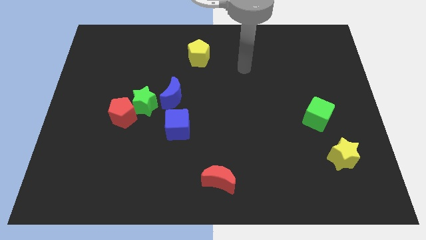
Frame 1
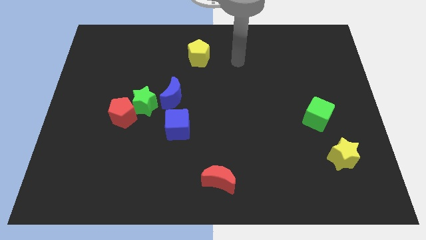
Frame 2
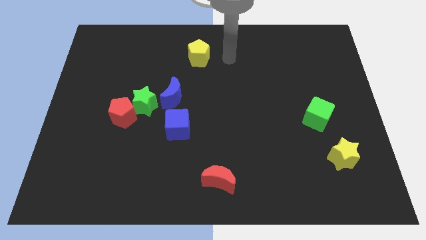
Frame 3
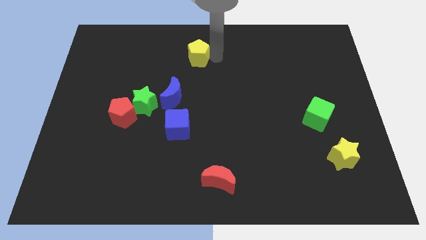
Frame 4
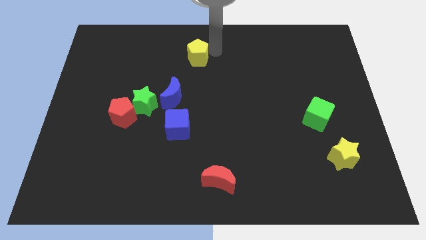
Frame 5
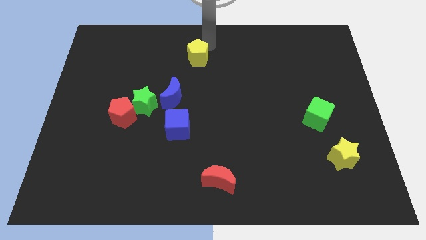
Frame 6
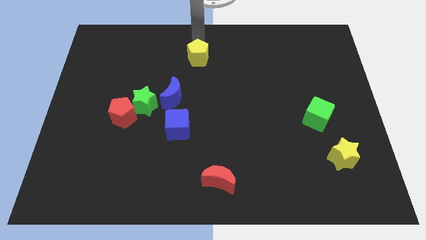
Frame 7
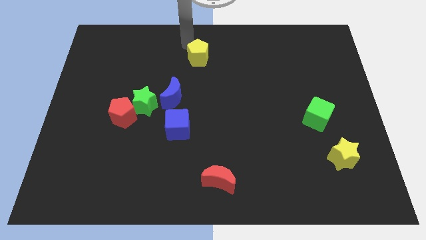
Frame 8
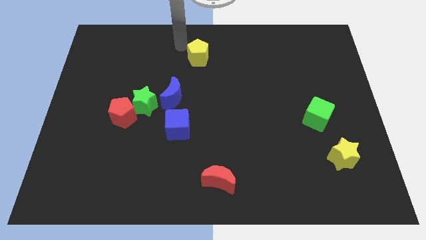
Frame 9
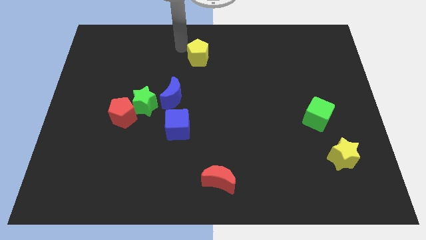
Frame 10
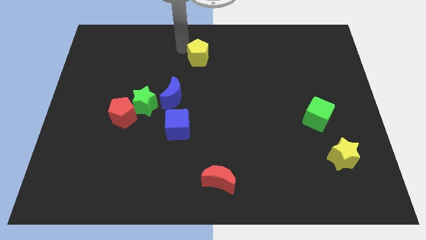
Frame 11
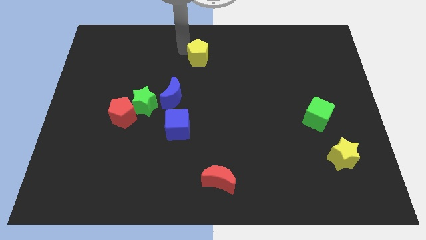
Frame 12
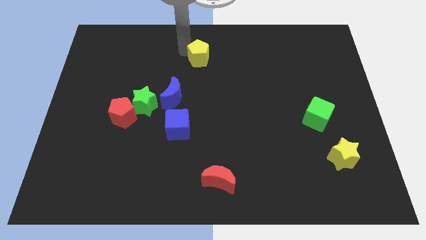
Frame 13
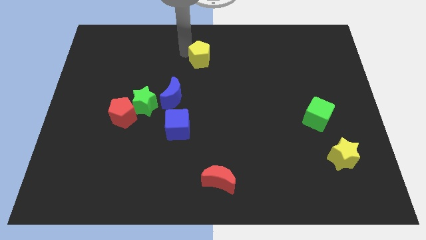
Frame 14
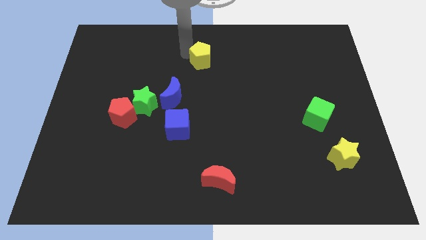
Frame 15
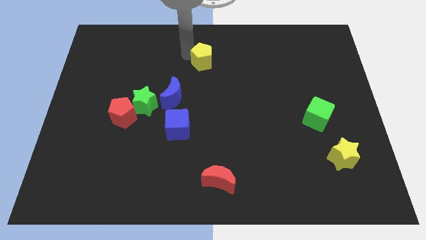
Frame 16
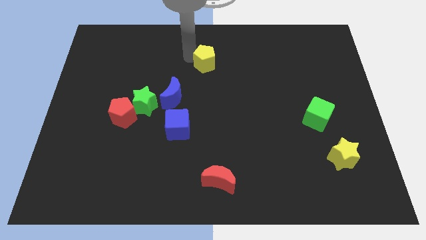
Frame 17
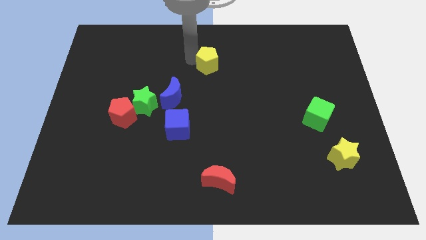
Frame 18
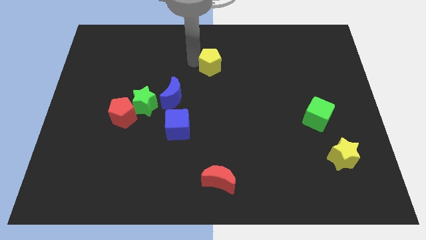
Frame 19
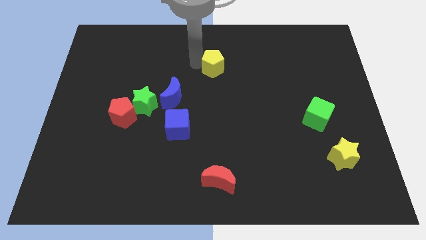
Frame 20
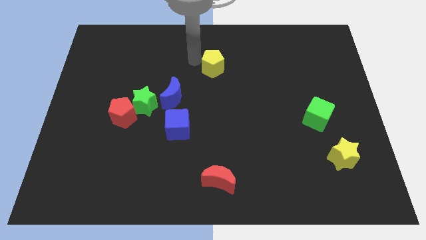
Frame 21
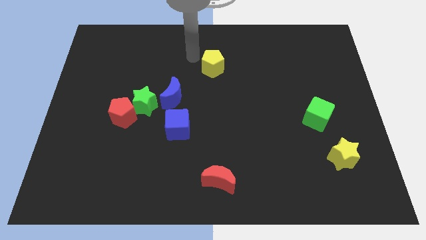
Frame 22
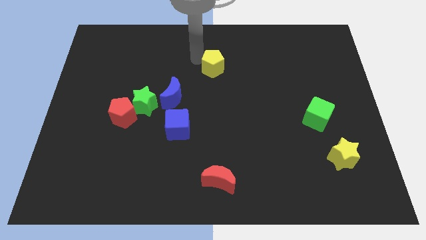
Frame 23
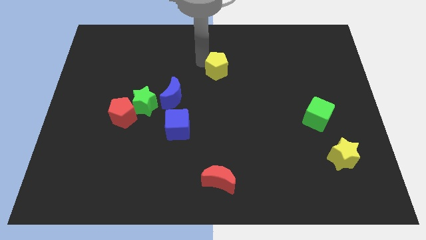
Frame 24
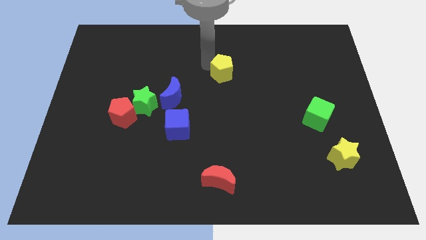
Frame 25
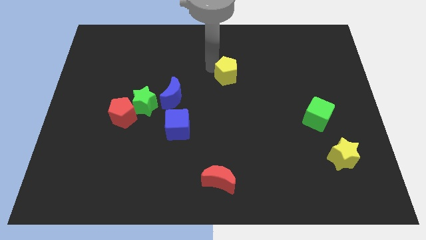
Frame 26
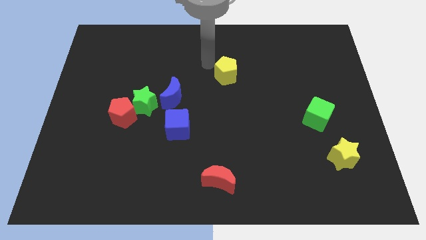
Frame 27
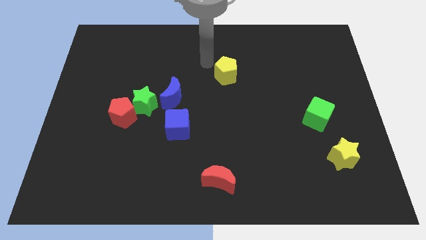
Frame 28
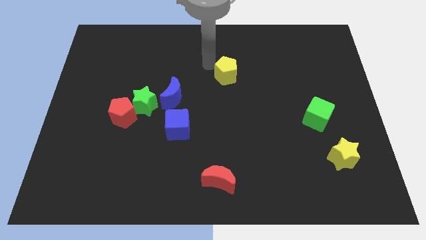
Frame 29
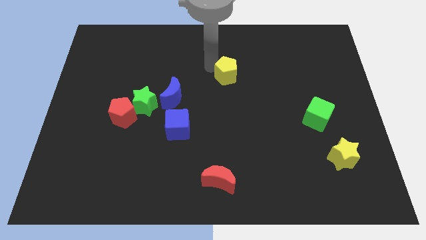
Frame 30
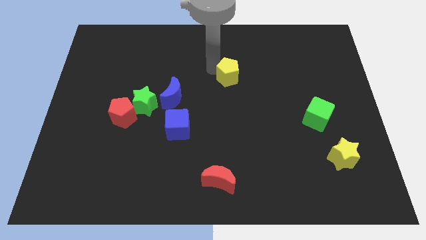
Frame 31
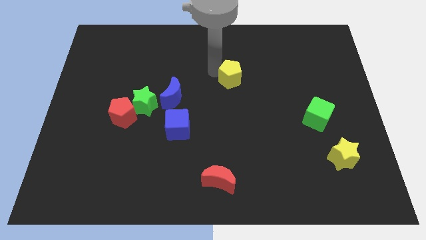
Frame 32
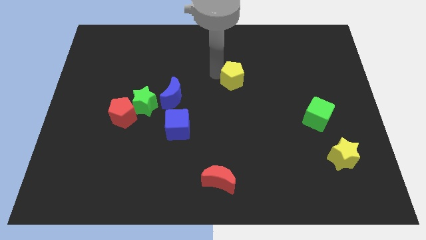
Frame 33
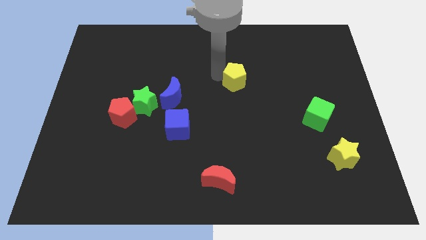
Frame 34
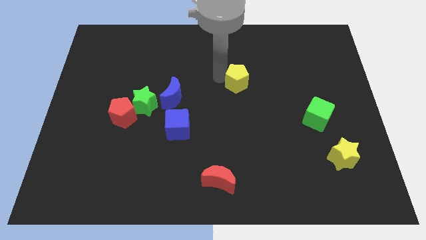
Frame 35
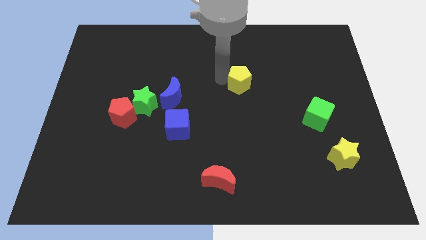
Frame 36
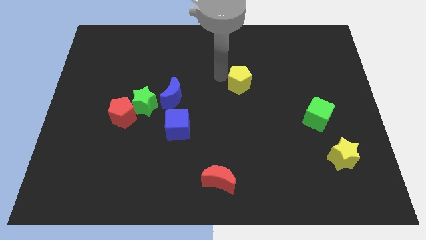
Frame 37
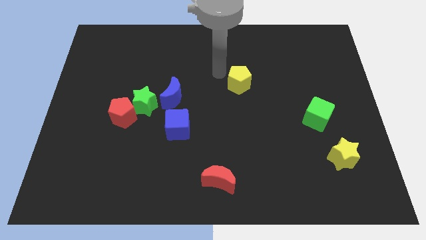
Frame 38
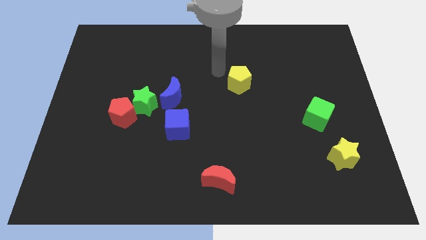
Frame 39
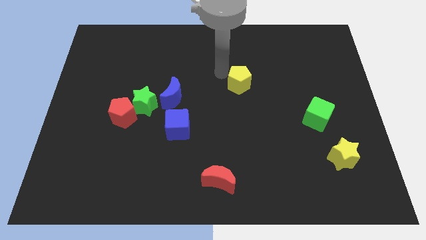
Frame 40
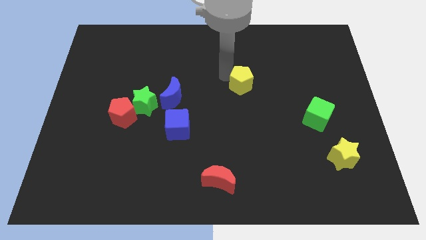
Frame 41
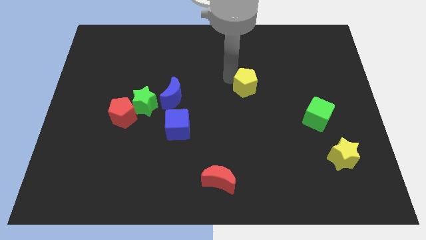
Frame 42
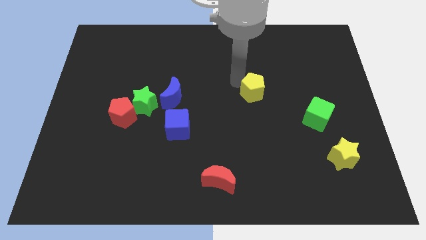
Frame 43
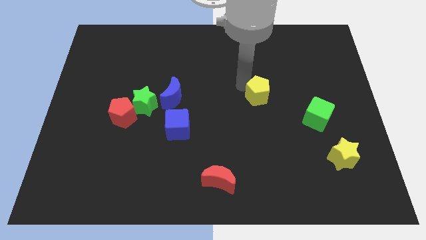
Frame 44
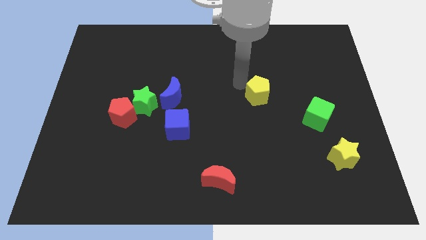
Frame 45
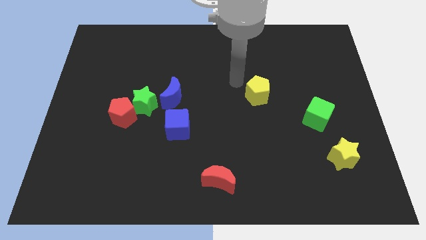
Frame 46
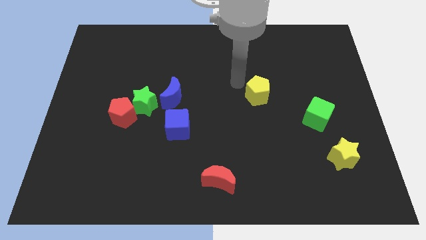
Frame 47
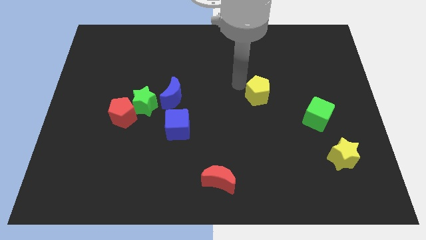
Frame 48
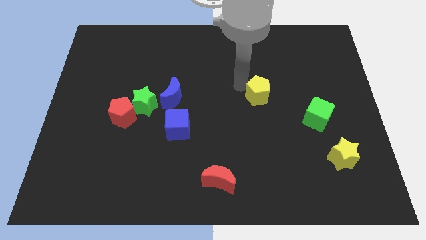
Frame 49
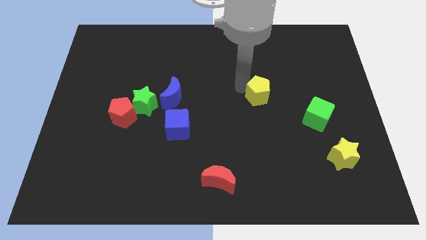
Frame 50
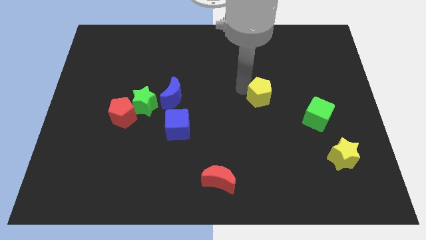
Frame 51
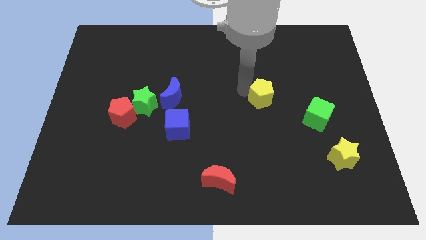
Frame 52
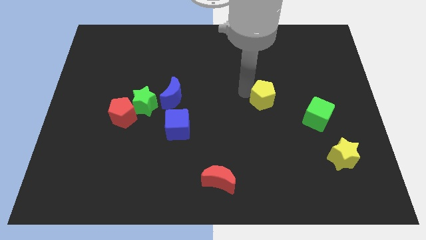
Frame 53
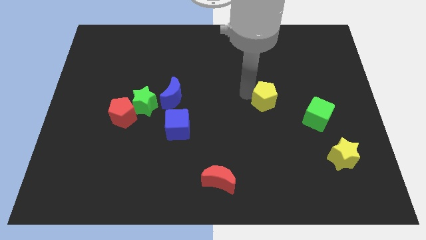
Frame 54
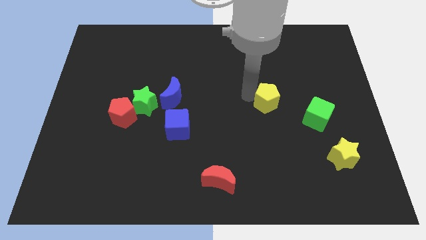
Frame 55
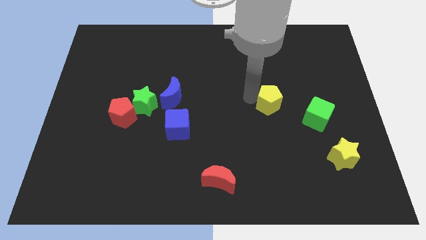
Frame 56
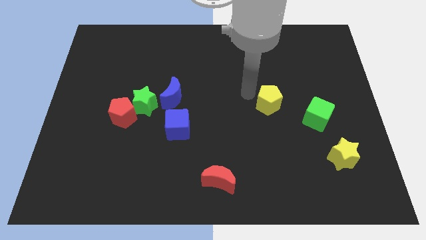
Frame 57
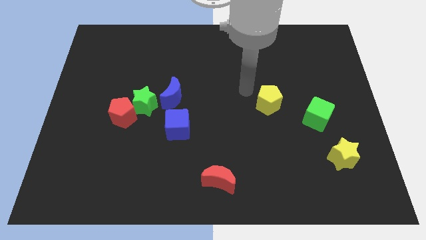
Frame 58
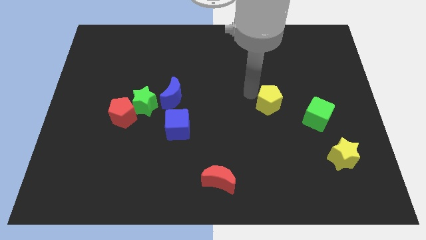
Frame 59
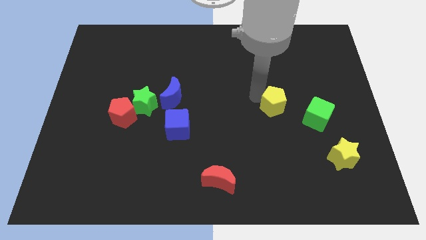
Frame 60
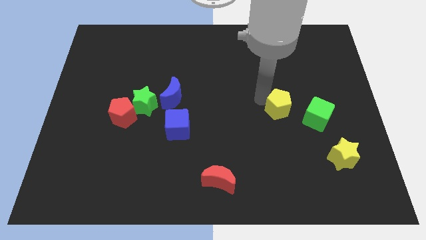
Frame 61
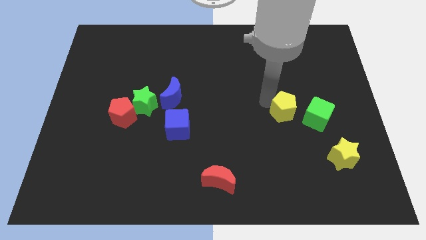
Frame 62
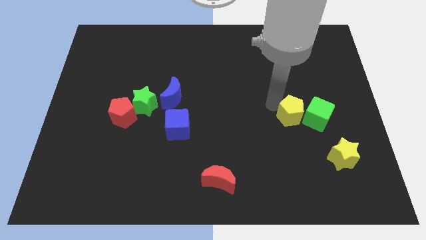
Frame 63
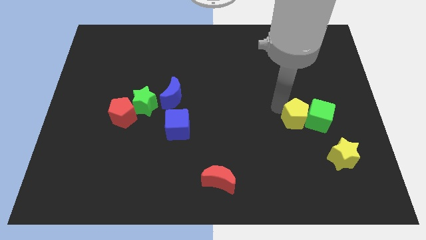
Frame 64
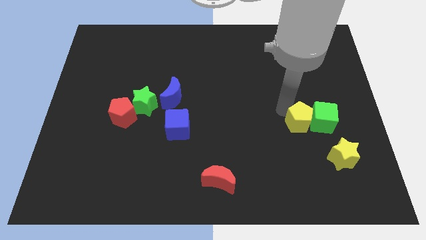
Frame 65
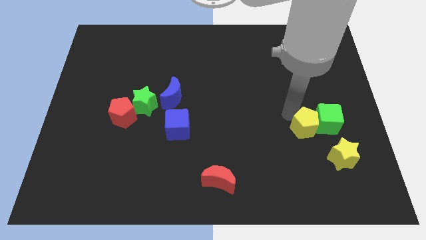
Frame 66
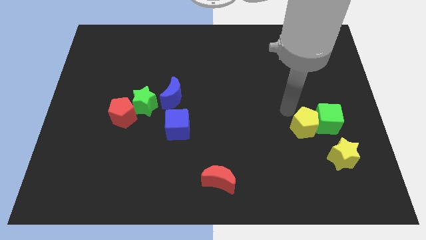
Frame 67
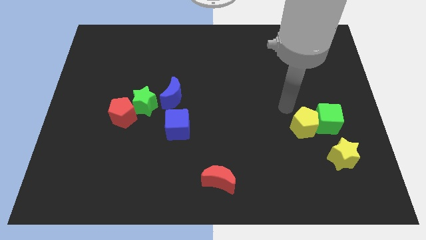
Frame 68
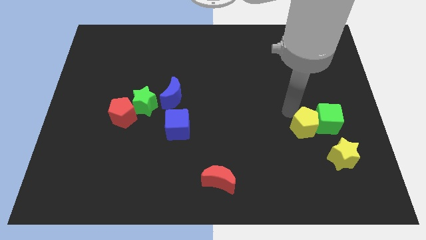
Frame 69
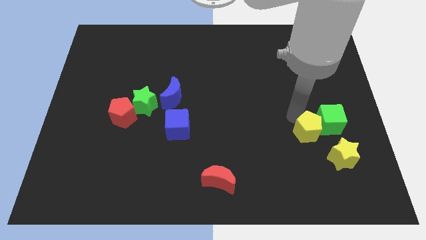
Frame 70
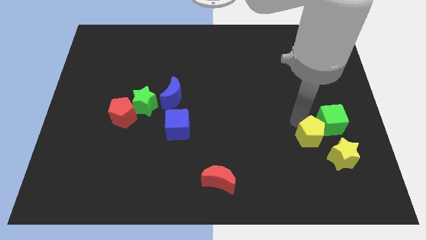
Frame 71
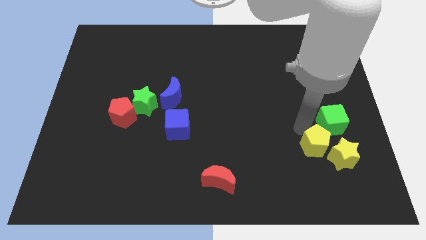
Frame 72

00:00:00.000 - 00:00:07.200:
move the yellow pentagon towards the yellow star

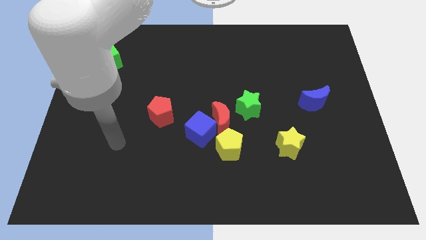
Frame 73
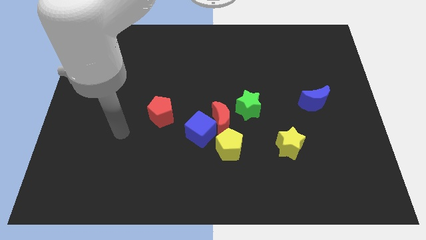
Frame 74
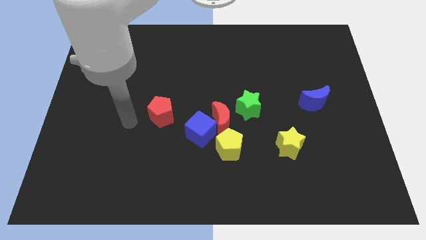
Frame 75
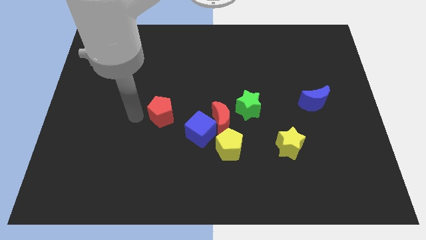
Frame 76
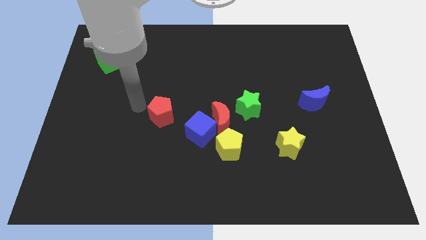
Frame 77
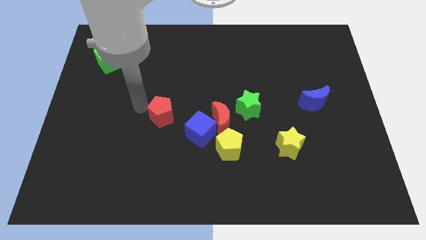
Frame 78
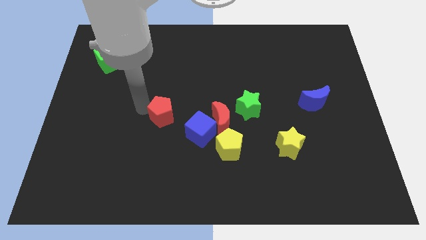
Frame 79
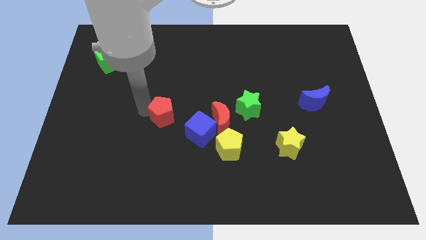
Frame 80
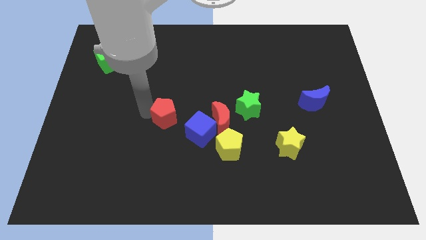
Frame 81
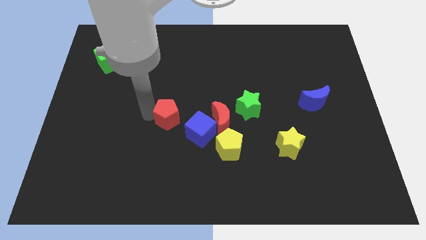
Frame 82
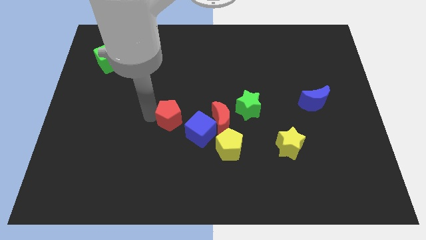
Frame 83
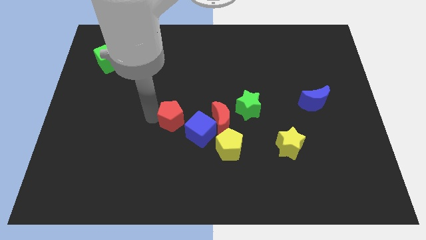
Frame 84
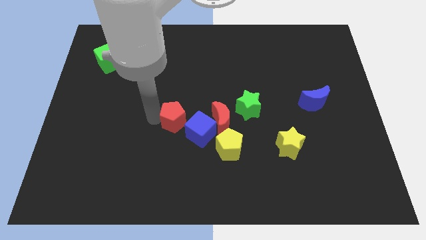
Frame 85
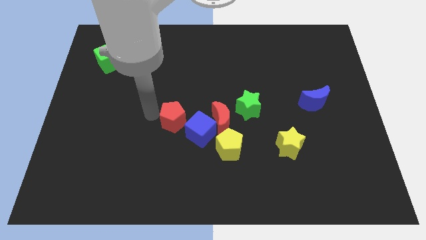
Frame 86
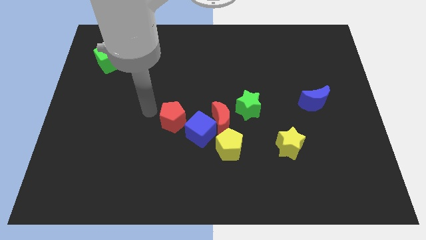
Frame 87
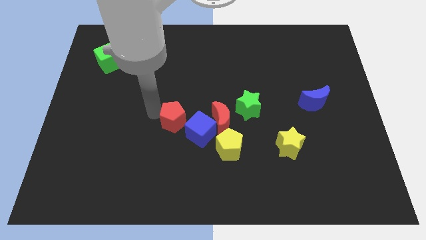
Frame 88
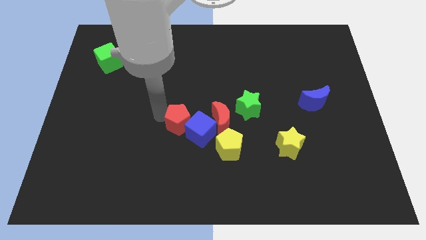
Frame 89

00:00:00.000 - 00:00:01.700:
move the red pentagon to the blue cube
